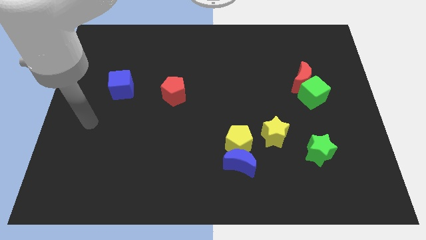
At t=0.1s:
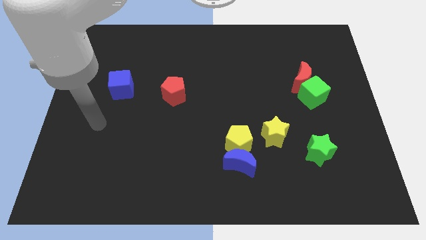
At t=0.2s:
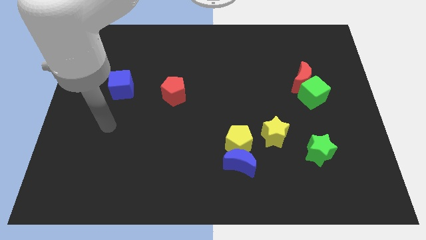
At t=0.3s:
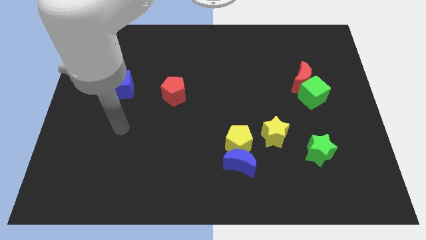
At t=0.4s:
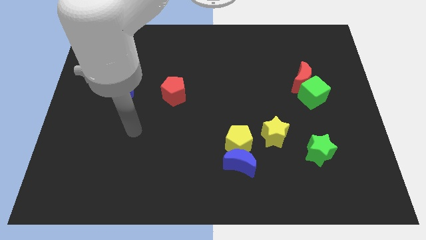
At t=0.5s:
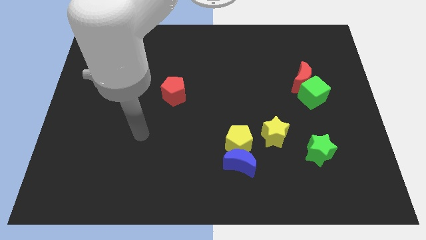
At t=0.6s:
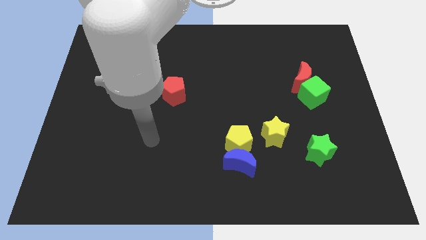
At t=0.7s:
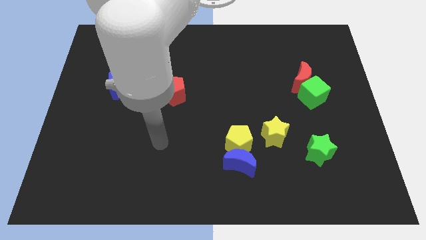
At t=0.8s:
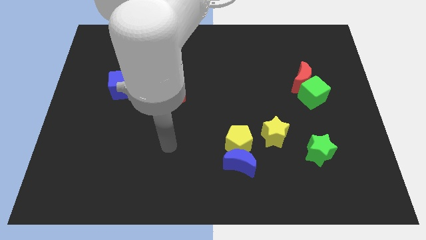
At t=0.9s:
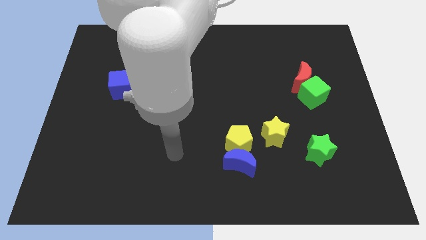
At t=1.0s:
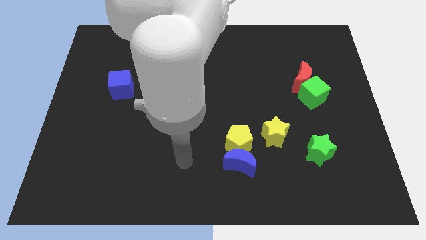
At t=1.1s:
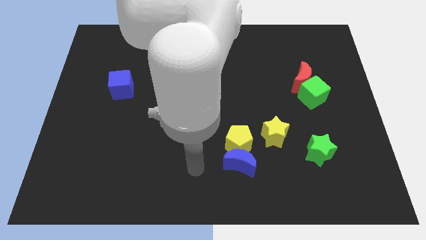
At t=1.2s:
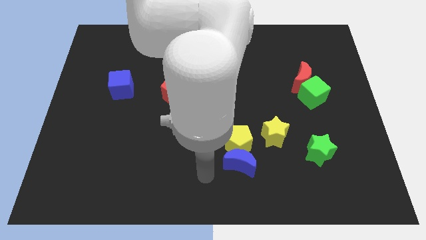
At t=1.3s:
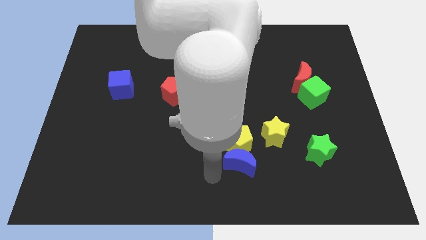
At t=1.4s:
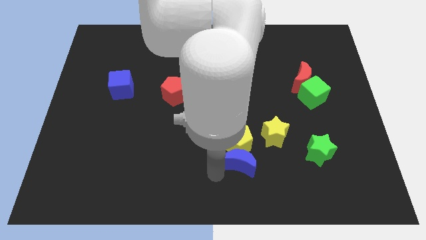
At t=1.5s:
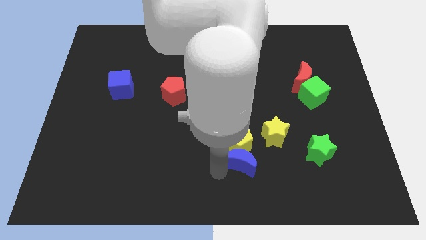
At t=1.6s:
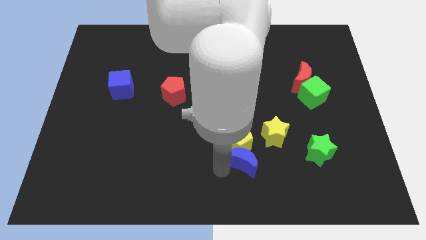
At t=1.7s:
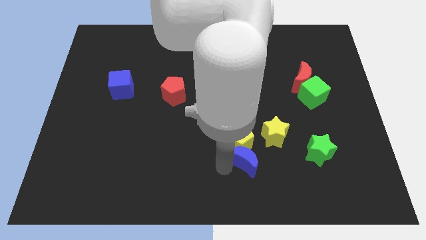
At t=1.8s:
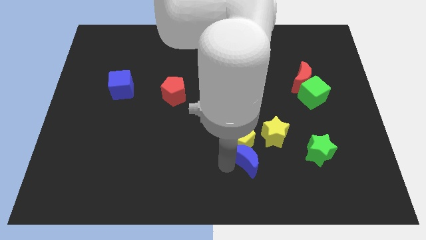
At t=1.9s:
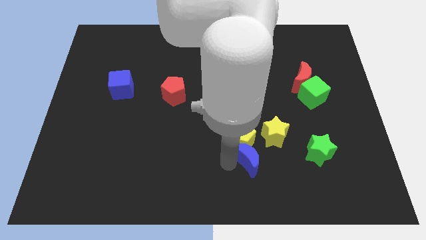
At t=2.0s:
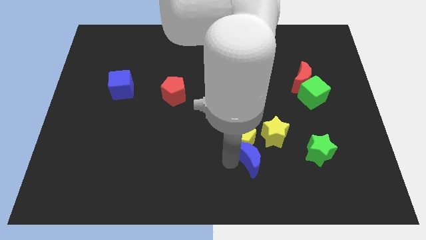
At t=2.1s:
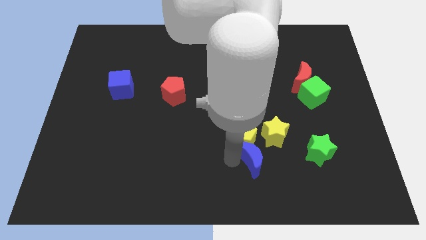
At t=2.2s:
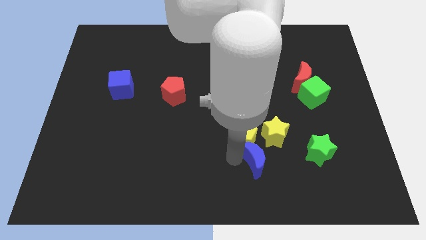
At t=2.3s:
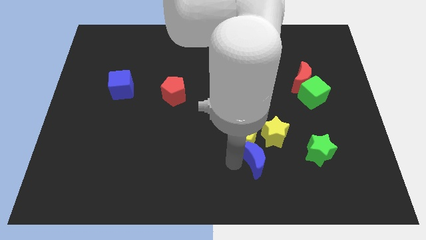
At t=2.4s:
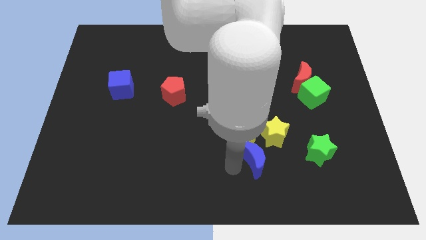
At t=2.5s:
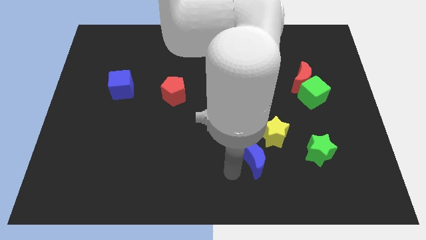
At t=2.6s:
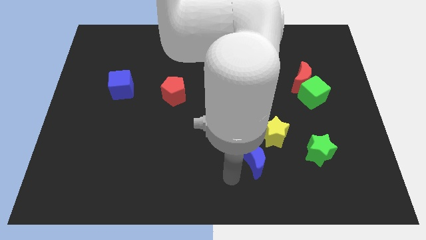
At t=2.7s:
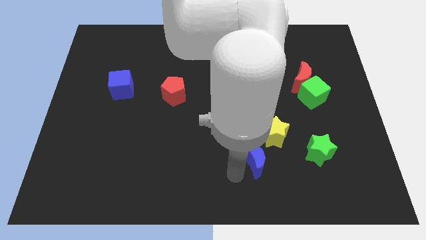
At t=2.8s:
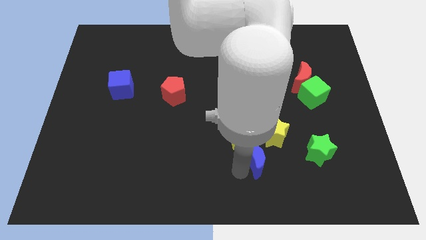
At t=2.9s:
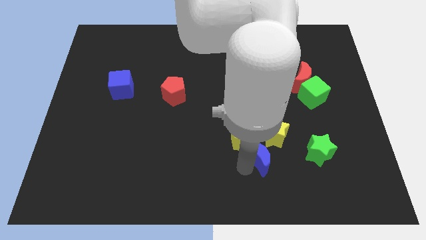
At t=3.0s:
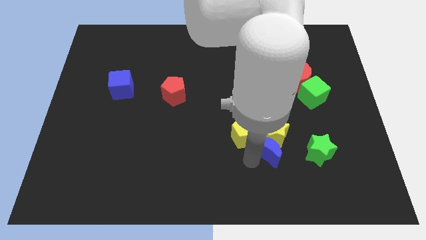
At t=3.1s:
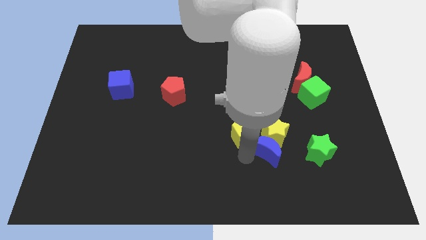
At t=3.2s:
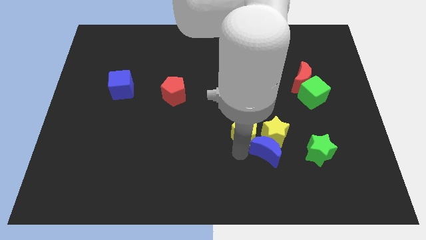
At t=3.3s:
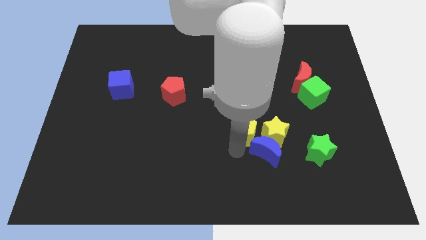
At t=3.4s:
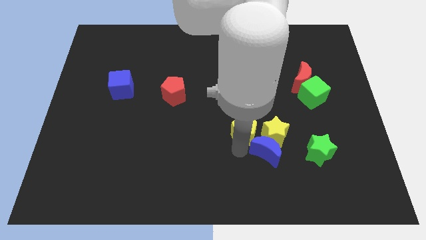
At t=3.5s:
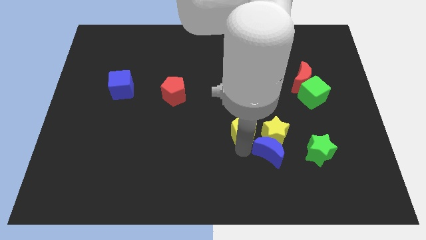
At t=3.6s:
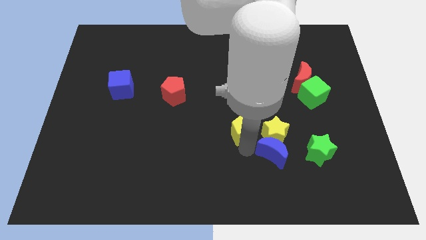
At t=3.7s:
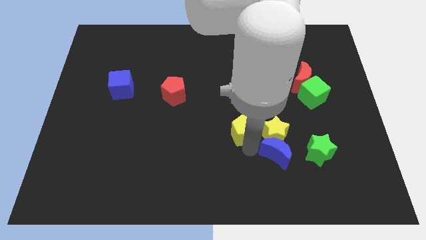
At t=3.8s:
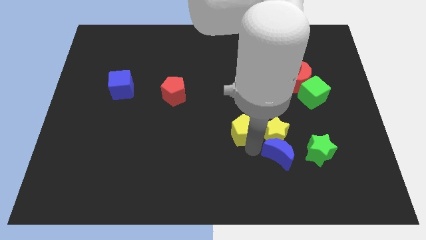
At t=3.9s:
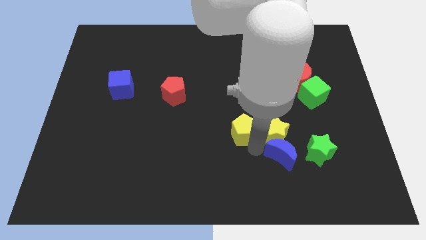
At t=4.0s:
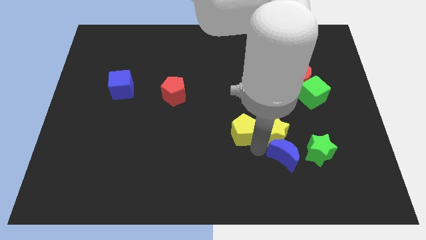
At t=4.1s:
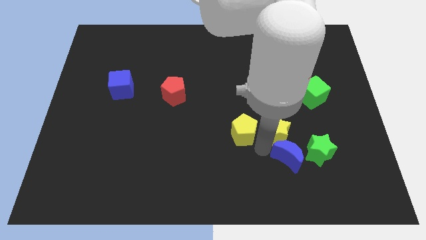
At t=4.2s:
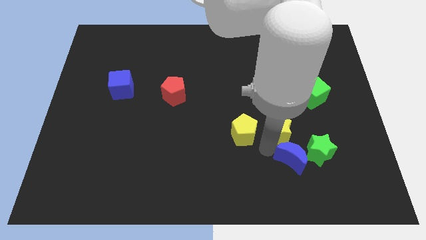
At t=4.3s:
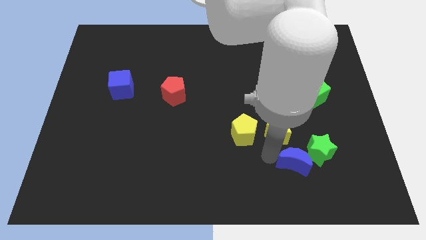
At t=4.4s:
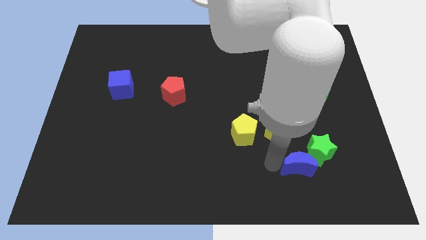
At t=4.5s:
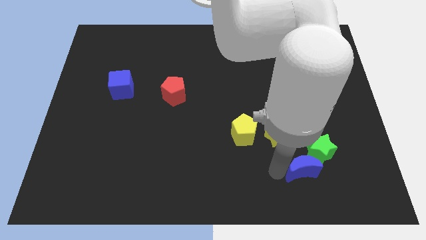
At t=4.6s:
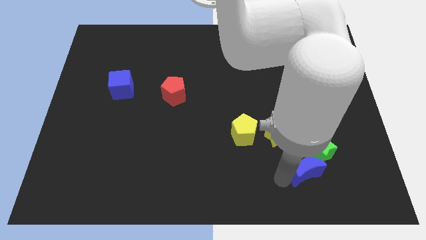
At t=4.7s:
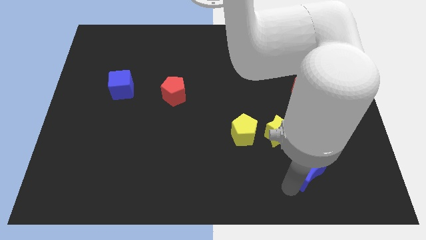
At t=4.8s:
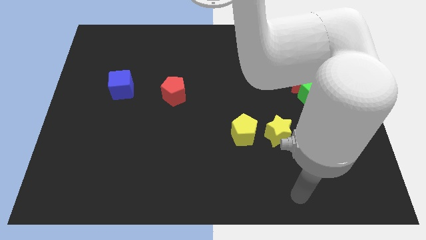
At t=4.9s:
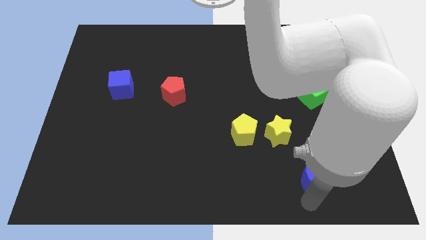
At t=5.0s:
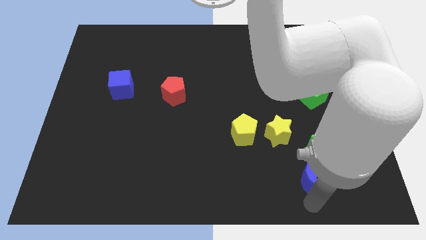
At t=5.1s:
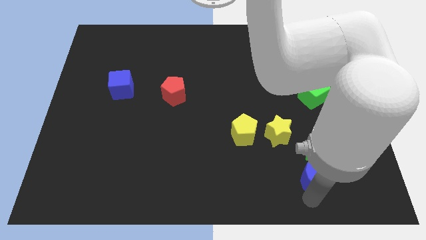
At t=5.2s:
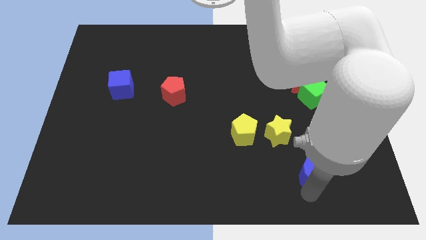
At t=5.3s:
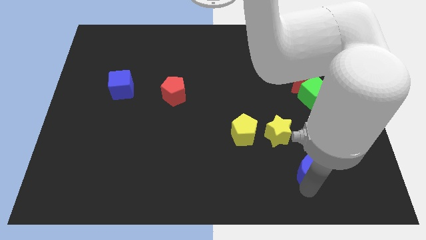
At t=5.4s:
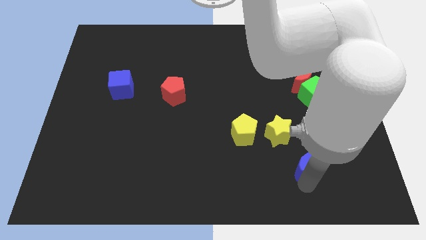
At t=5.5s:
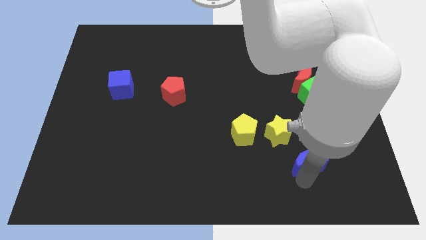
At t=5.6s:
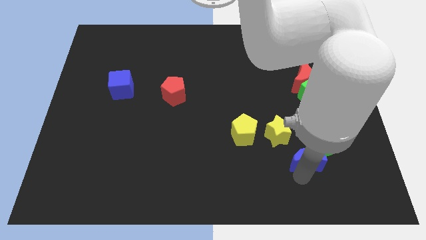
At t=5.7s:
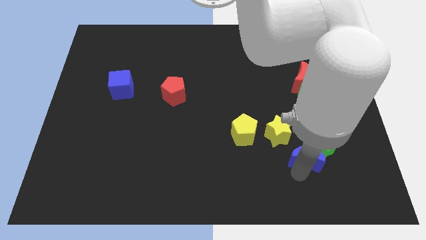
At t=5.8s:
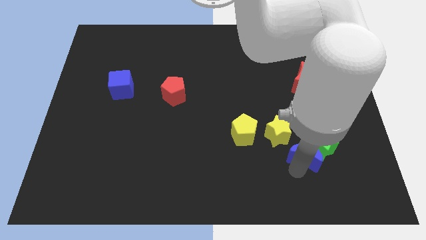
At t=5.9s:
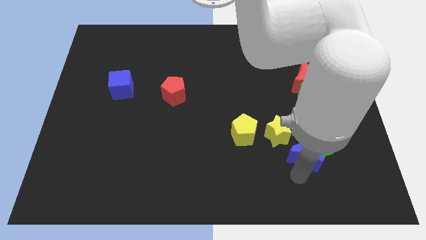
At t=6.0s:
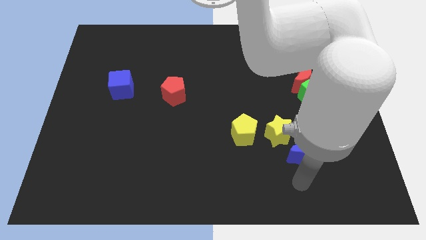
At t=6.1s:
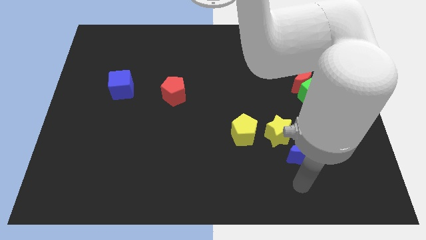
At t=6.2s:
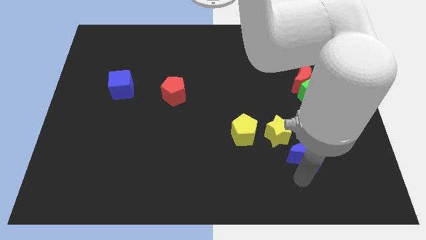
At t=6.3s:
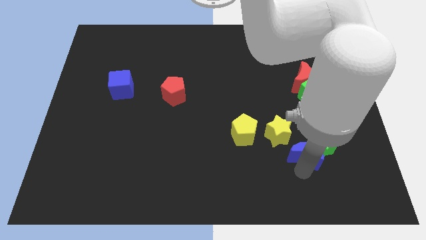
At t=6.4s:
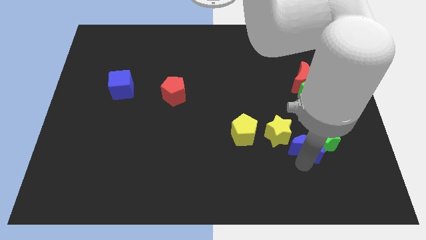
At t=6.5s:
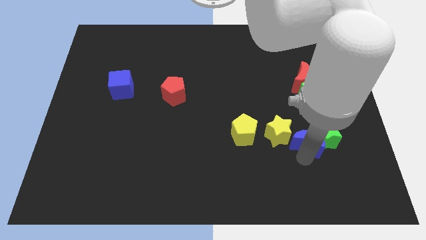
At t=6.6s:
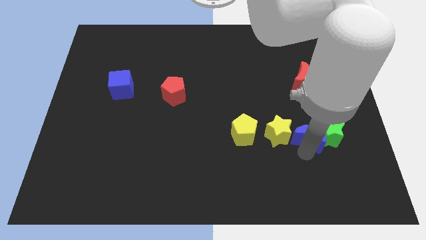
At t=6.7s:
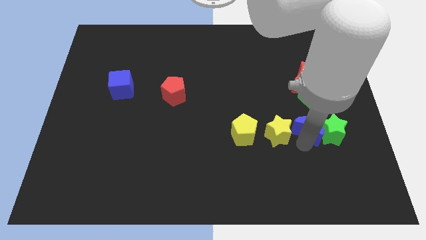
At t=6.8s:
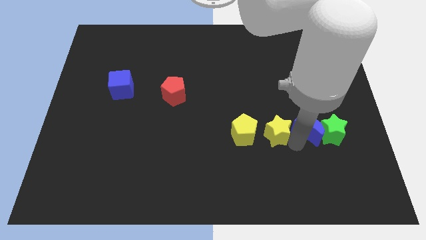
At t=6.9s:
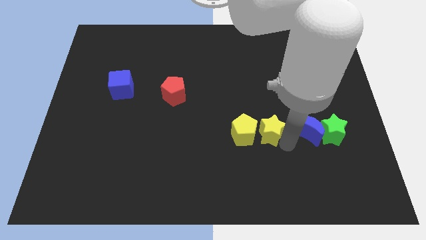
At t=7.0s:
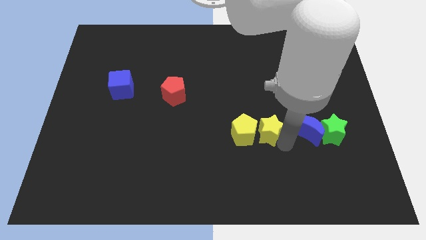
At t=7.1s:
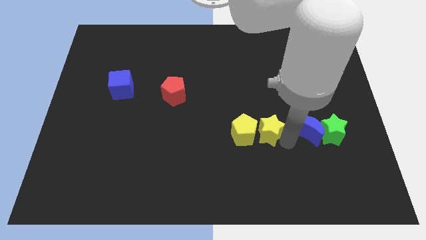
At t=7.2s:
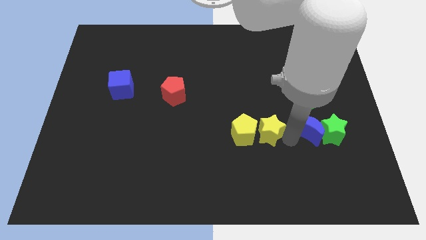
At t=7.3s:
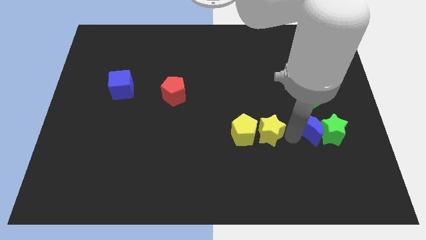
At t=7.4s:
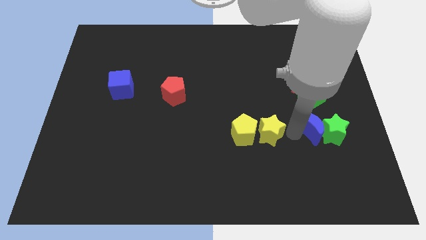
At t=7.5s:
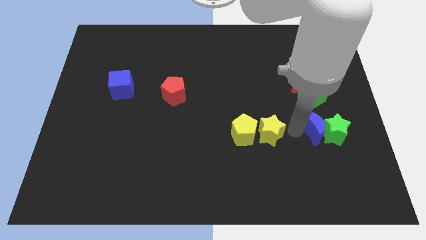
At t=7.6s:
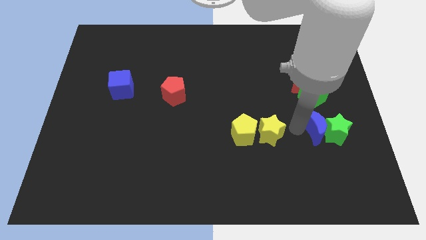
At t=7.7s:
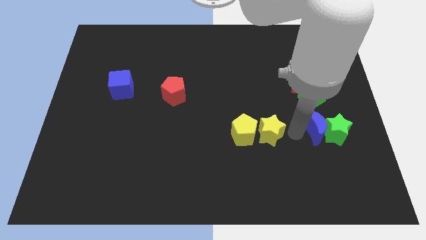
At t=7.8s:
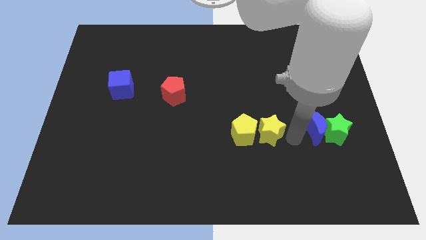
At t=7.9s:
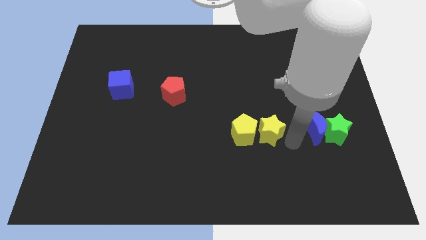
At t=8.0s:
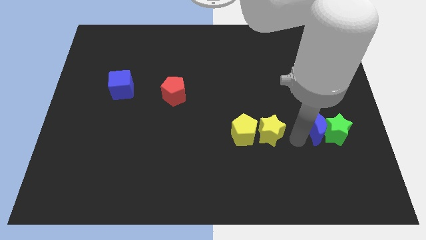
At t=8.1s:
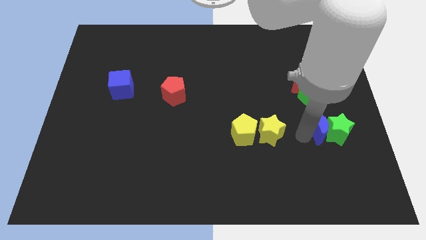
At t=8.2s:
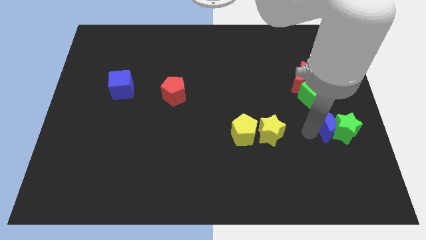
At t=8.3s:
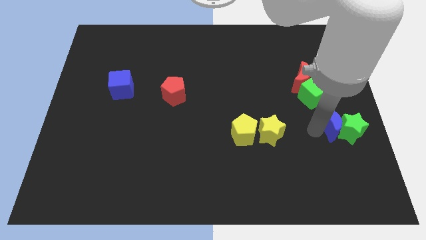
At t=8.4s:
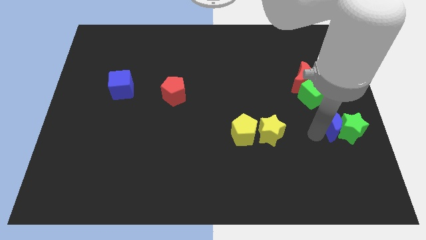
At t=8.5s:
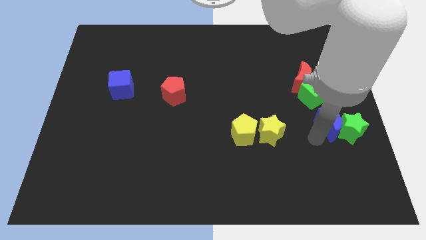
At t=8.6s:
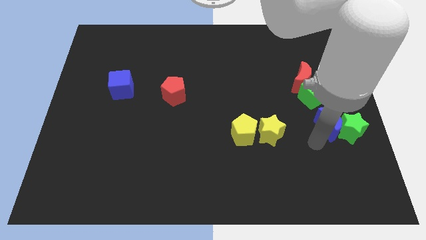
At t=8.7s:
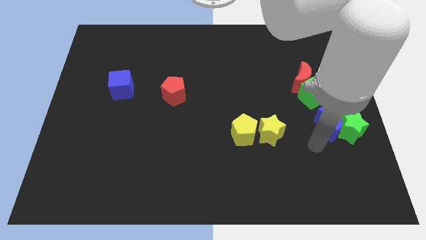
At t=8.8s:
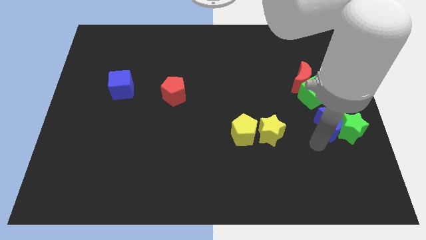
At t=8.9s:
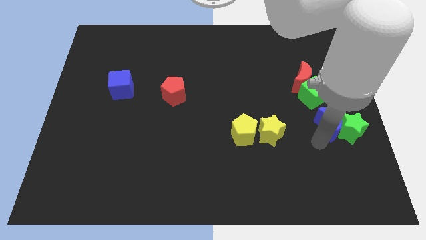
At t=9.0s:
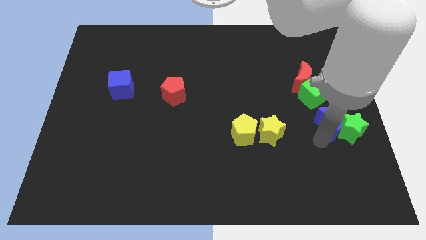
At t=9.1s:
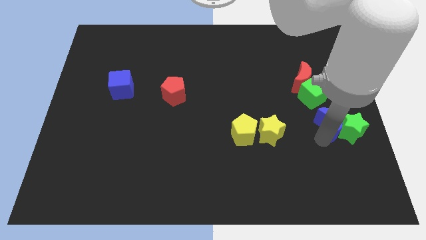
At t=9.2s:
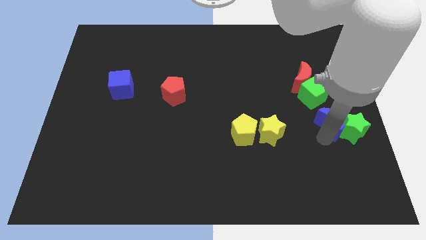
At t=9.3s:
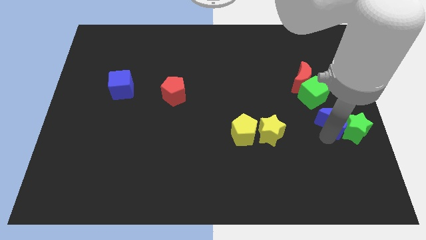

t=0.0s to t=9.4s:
put the blue moon to the center right
